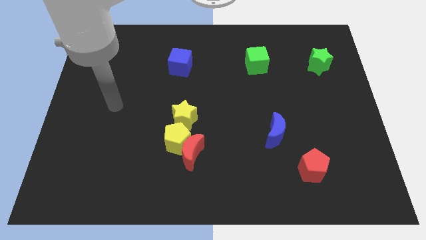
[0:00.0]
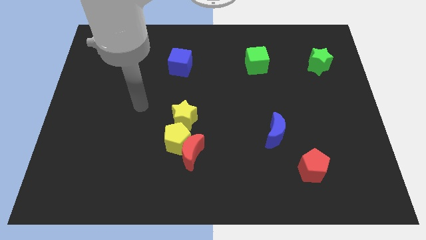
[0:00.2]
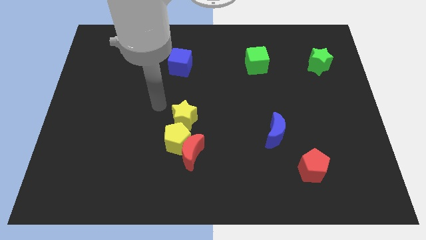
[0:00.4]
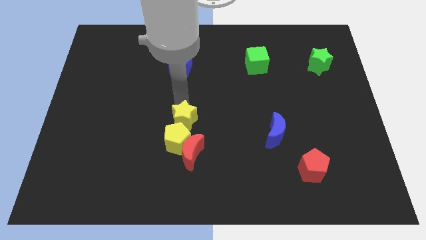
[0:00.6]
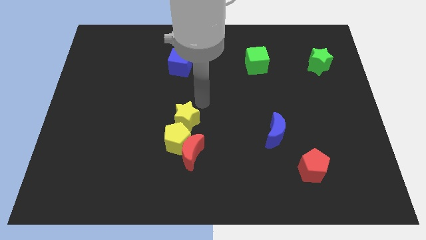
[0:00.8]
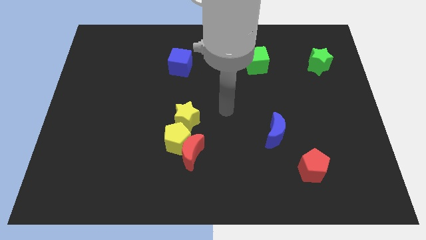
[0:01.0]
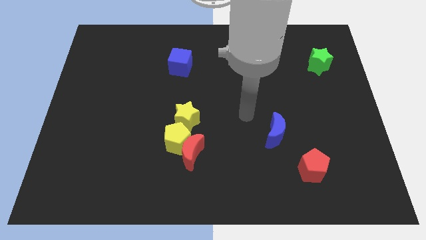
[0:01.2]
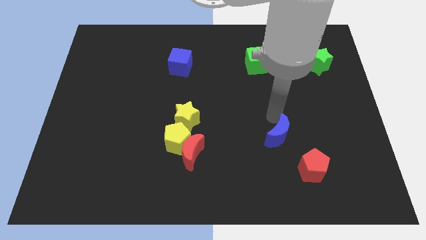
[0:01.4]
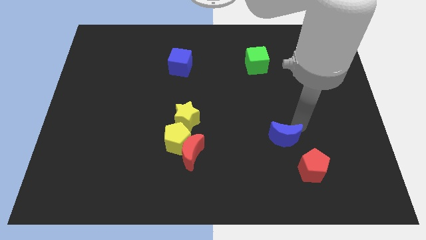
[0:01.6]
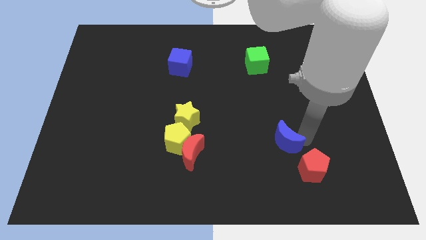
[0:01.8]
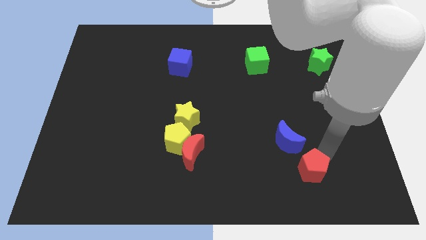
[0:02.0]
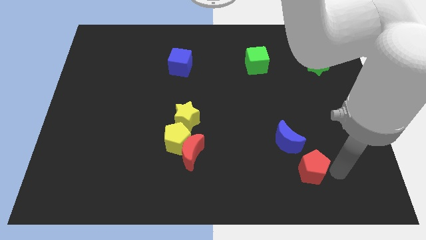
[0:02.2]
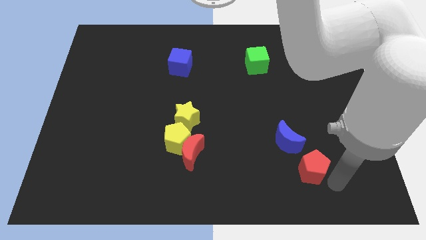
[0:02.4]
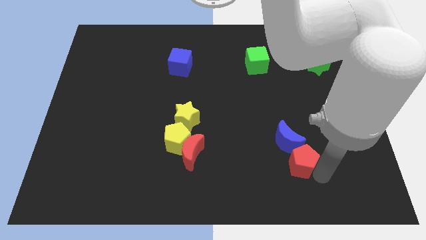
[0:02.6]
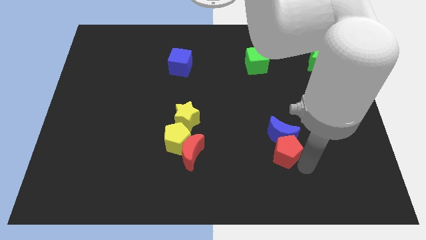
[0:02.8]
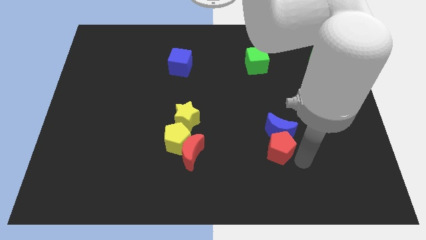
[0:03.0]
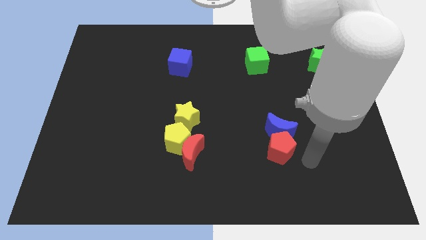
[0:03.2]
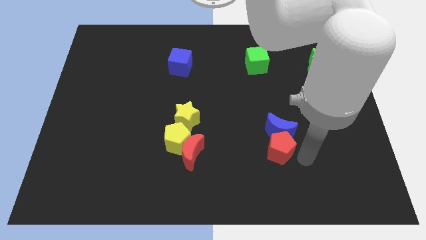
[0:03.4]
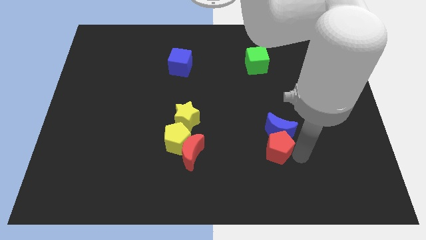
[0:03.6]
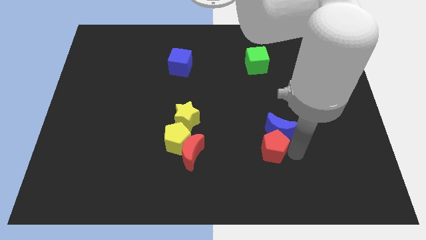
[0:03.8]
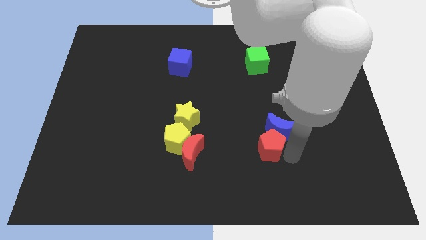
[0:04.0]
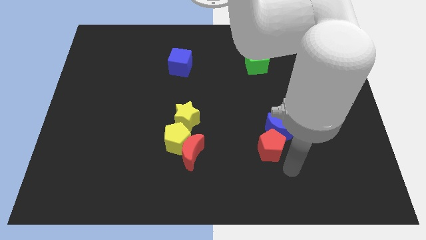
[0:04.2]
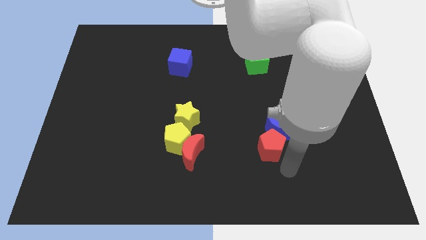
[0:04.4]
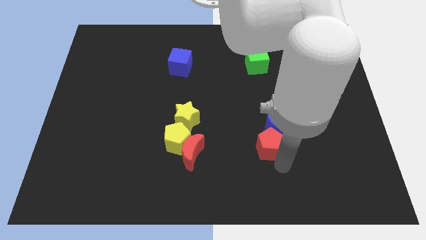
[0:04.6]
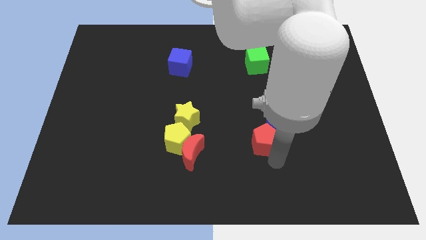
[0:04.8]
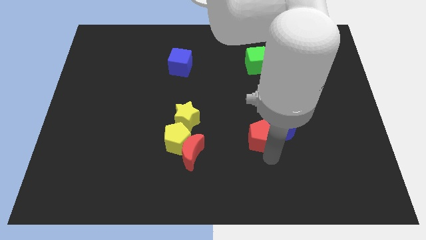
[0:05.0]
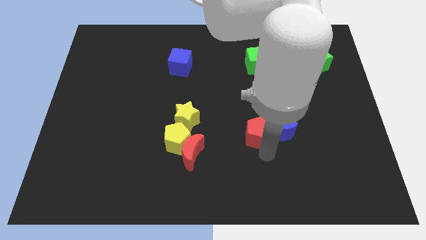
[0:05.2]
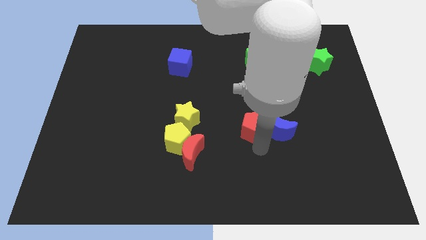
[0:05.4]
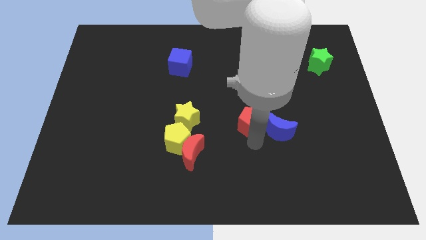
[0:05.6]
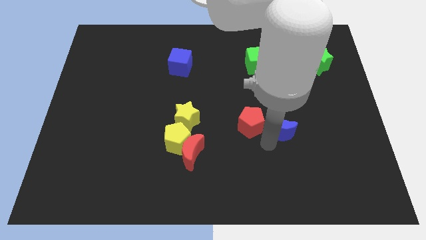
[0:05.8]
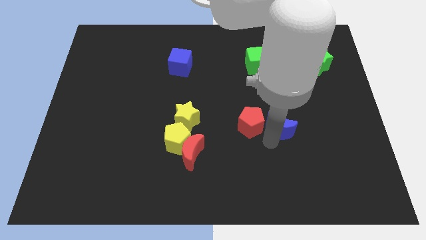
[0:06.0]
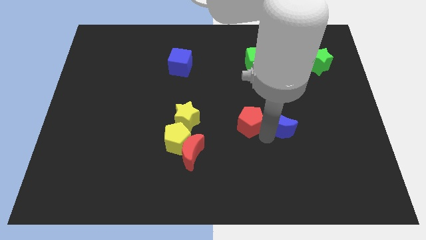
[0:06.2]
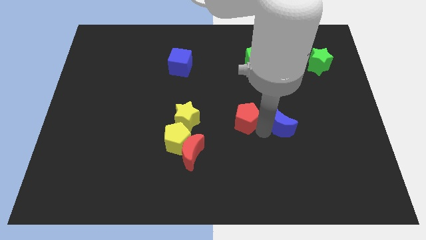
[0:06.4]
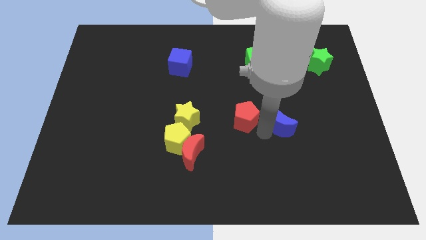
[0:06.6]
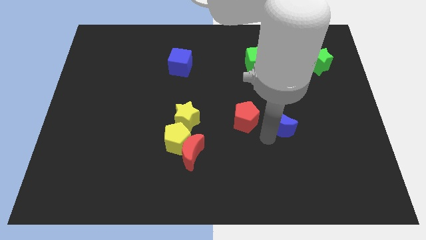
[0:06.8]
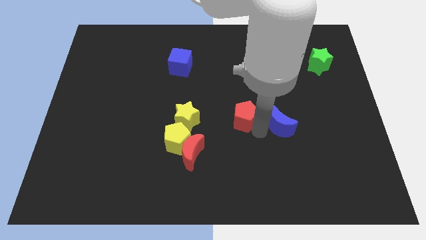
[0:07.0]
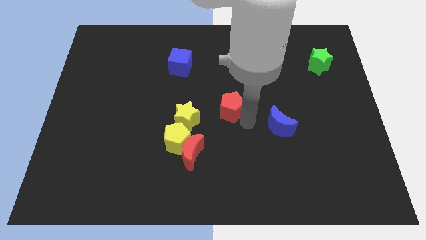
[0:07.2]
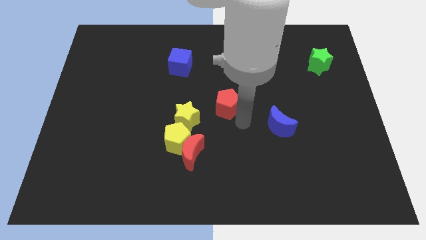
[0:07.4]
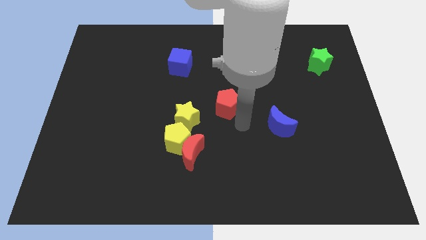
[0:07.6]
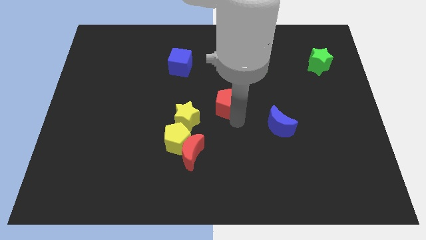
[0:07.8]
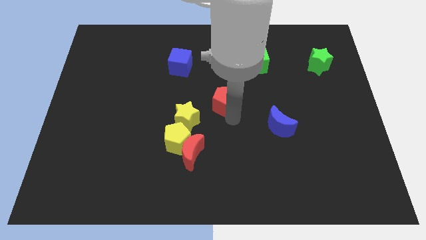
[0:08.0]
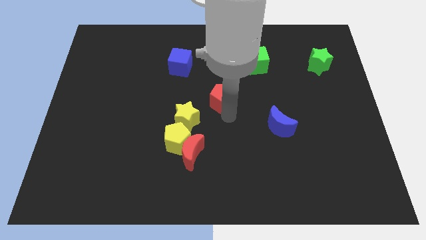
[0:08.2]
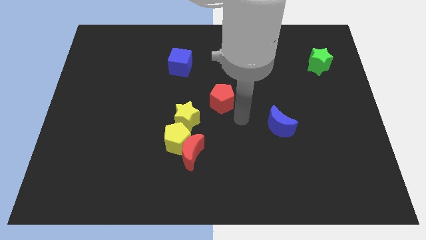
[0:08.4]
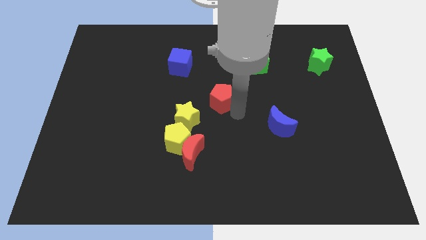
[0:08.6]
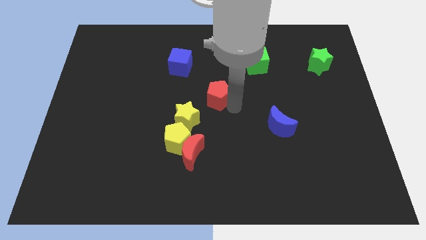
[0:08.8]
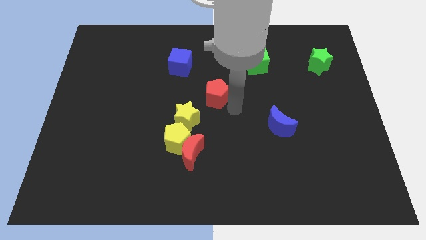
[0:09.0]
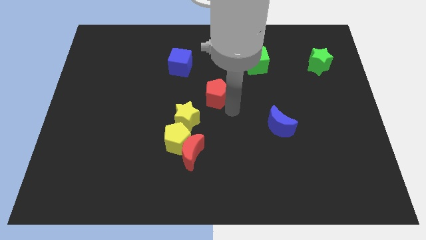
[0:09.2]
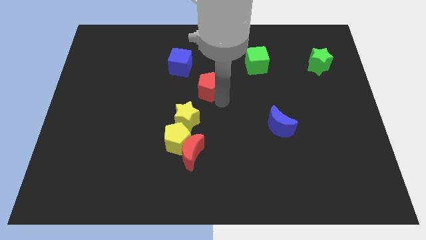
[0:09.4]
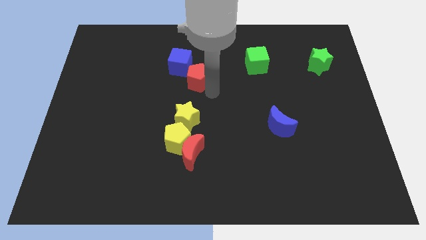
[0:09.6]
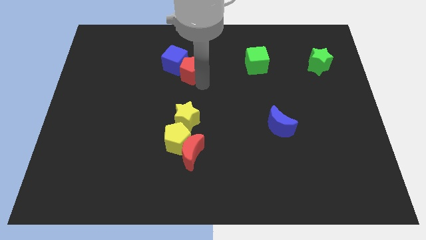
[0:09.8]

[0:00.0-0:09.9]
put the red pentagon to the blue cube

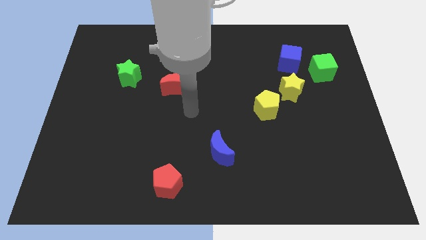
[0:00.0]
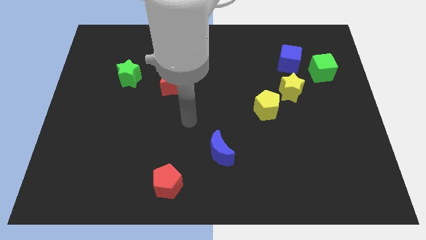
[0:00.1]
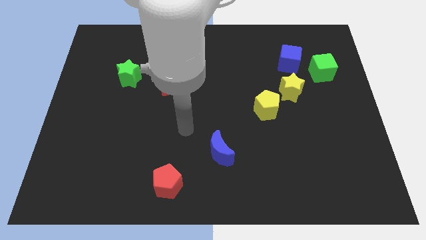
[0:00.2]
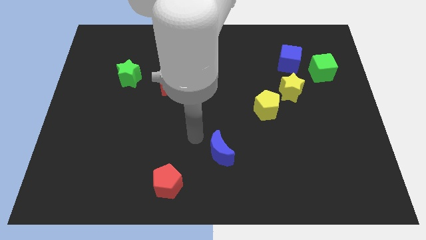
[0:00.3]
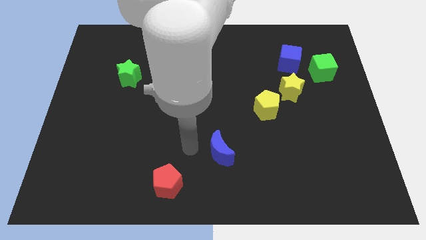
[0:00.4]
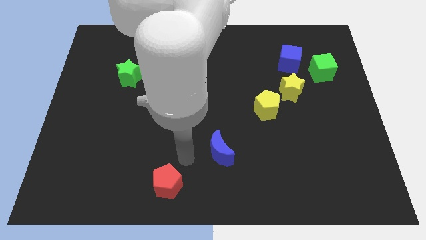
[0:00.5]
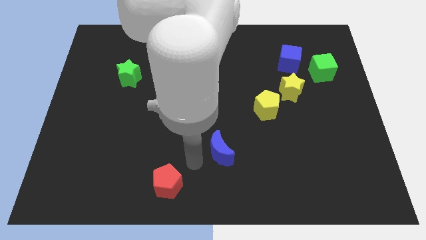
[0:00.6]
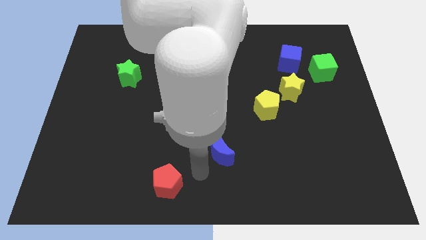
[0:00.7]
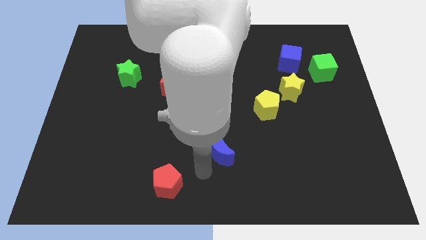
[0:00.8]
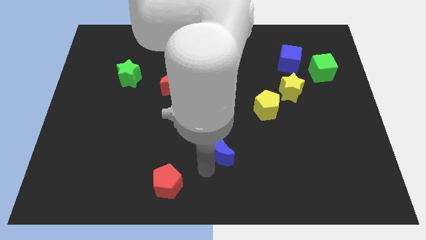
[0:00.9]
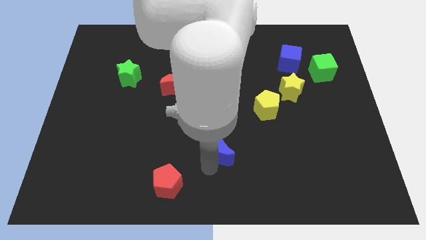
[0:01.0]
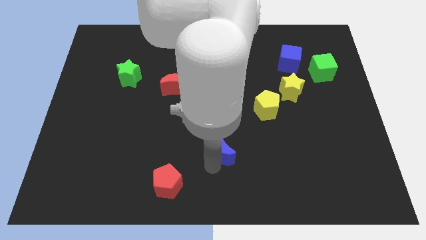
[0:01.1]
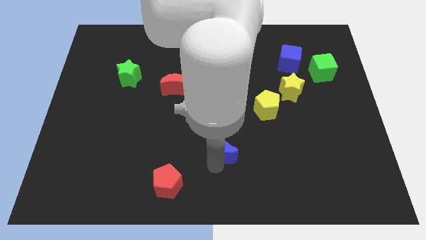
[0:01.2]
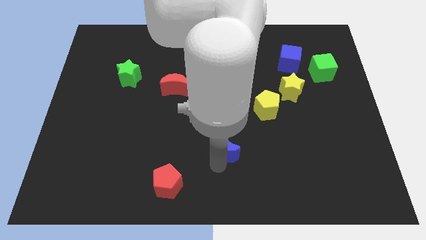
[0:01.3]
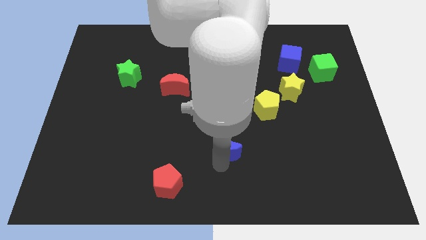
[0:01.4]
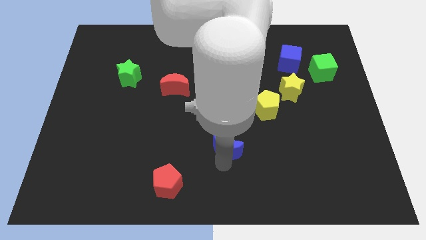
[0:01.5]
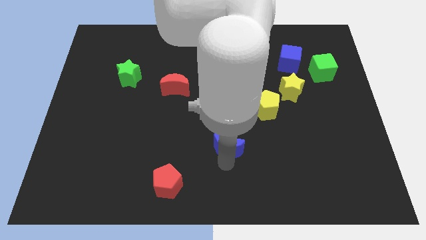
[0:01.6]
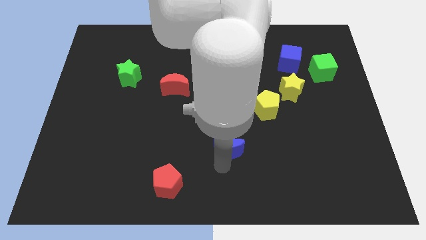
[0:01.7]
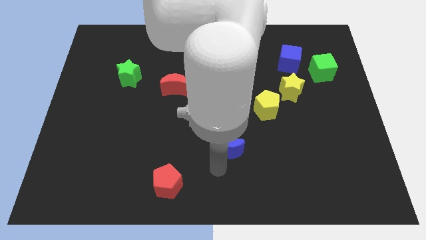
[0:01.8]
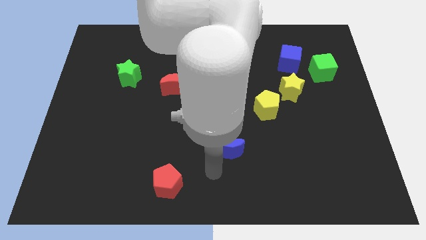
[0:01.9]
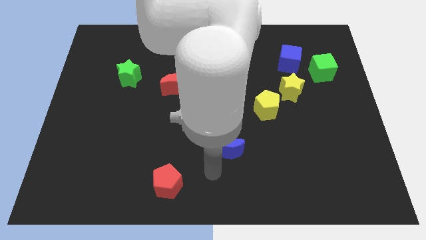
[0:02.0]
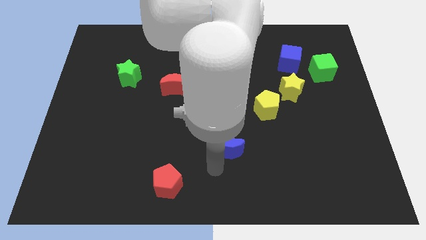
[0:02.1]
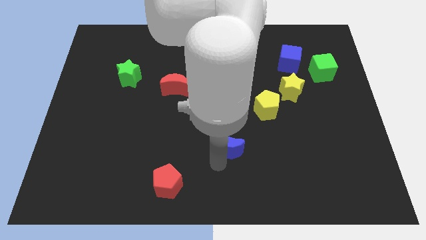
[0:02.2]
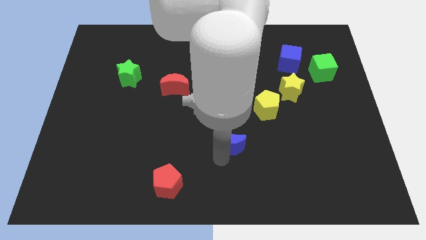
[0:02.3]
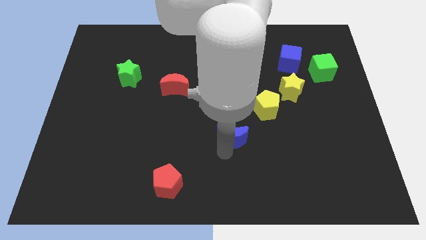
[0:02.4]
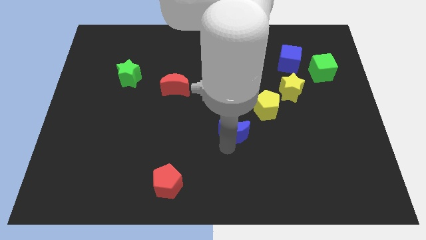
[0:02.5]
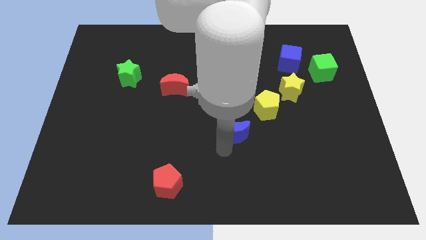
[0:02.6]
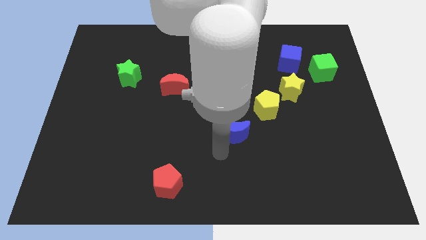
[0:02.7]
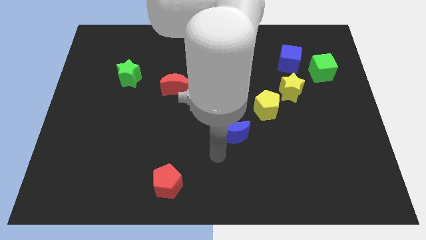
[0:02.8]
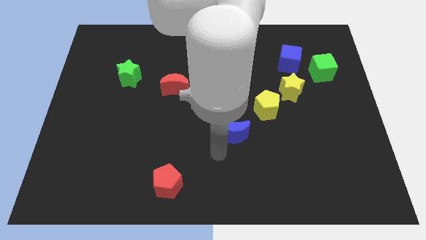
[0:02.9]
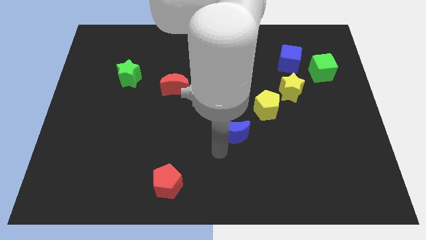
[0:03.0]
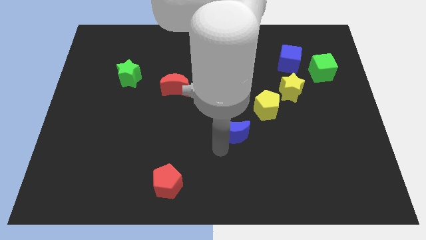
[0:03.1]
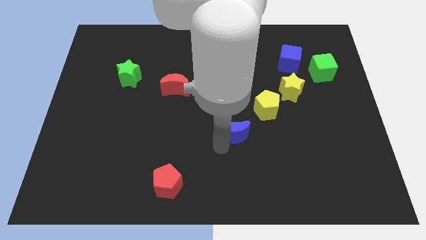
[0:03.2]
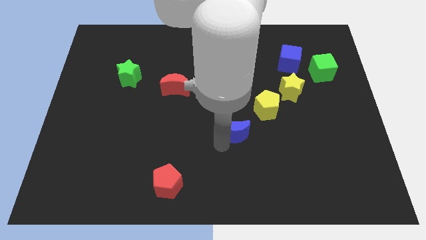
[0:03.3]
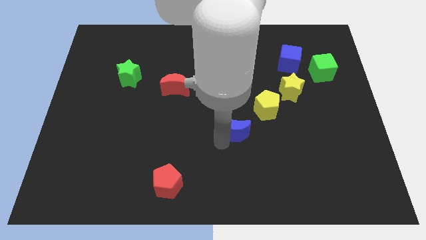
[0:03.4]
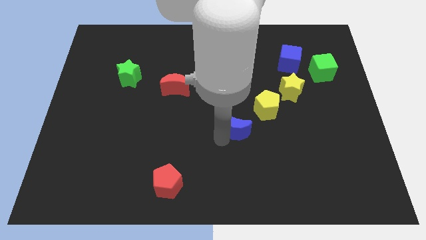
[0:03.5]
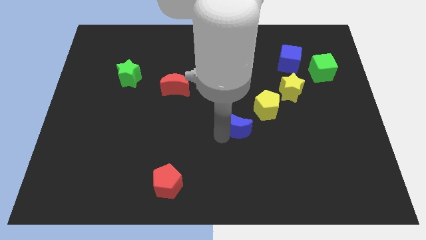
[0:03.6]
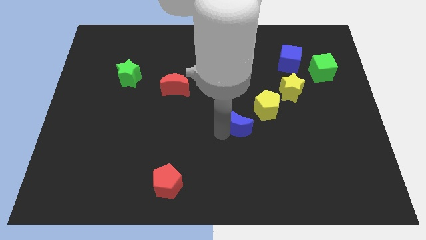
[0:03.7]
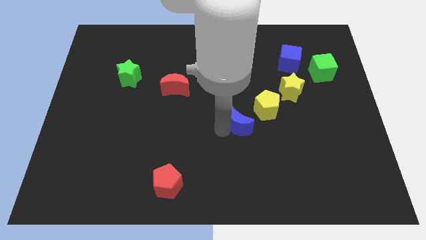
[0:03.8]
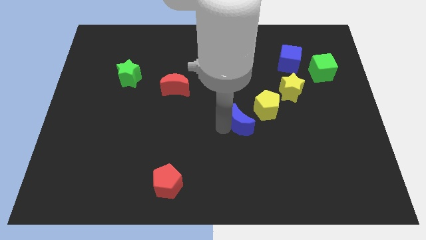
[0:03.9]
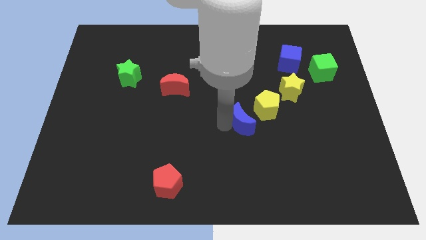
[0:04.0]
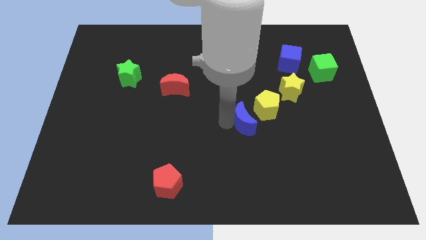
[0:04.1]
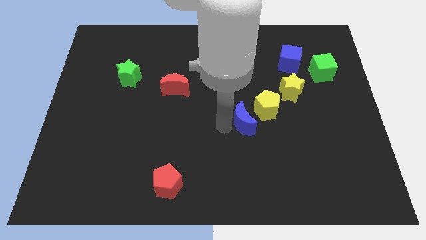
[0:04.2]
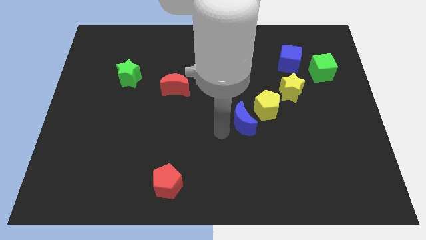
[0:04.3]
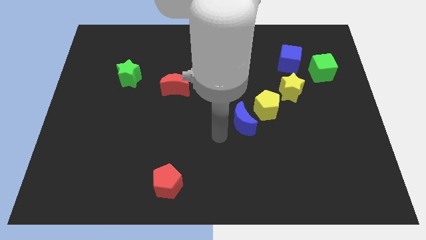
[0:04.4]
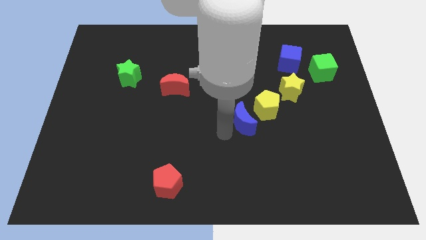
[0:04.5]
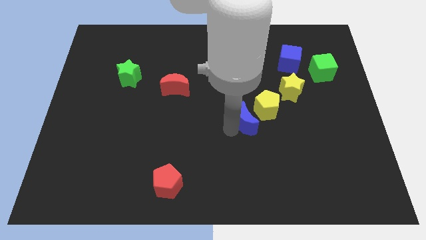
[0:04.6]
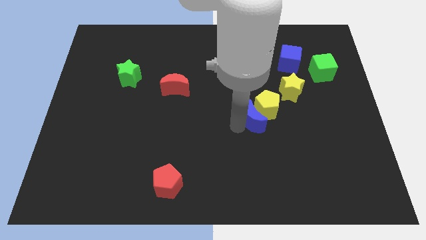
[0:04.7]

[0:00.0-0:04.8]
put the blue moon next to the yellow pentagon
